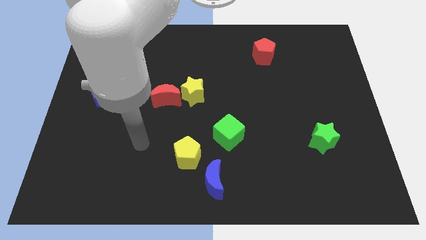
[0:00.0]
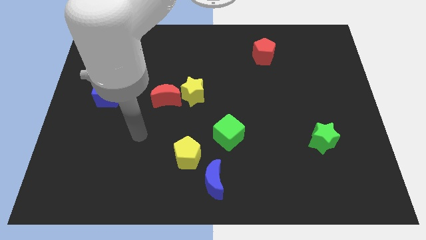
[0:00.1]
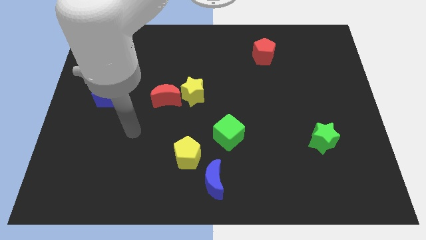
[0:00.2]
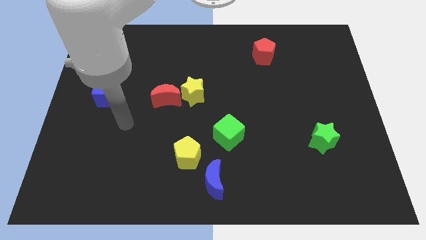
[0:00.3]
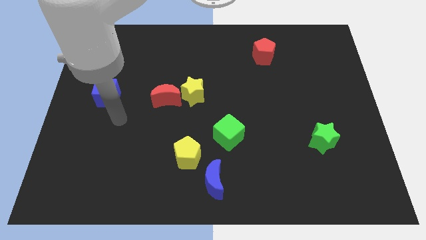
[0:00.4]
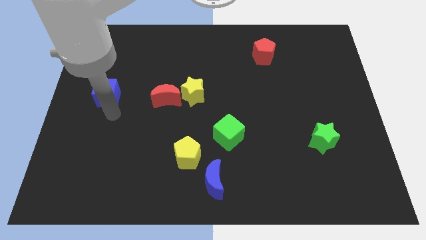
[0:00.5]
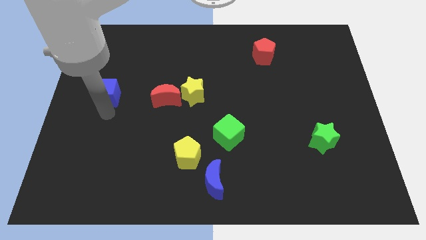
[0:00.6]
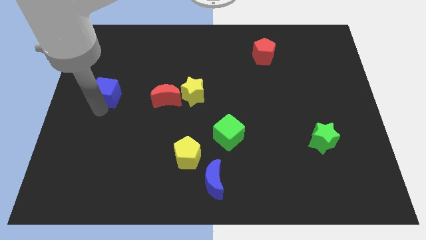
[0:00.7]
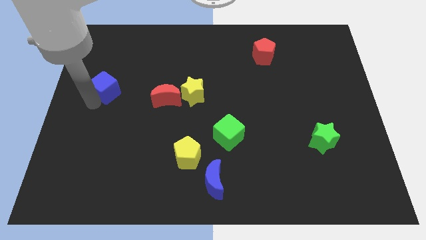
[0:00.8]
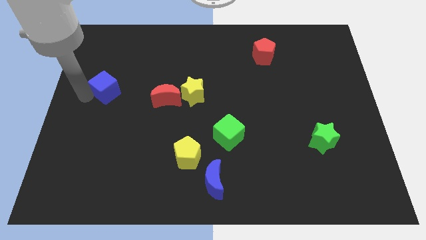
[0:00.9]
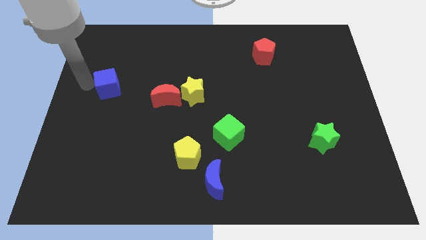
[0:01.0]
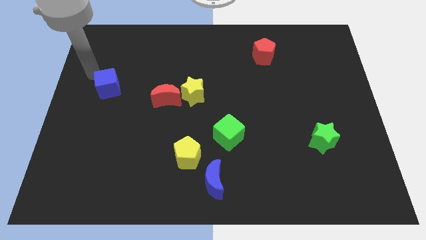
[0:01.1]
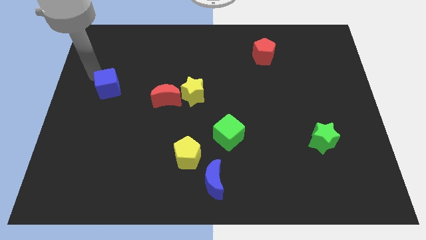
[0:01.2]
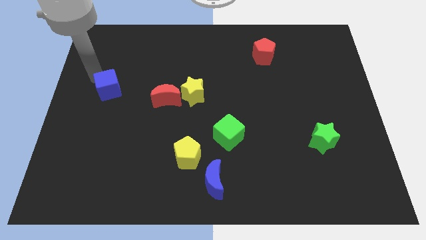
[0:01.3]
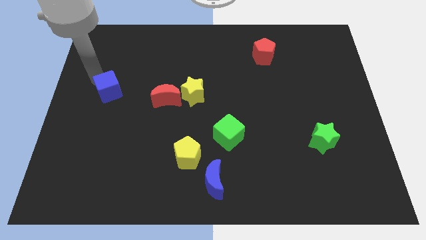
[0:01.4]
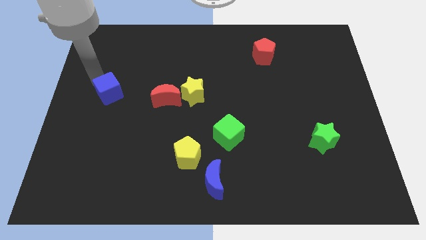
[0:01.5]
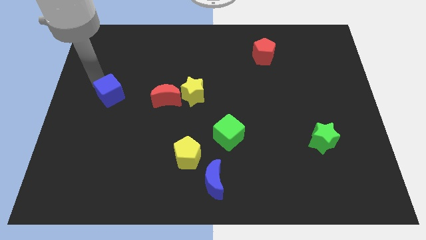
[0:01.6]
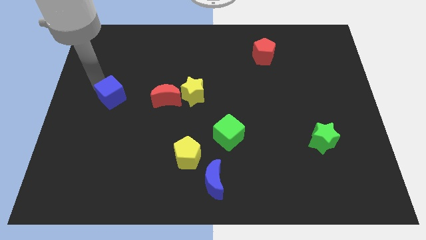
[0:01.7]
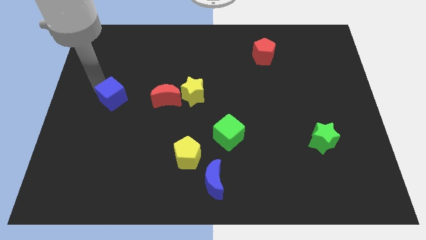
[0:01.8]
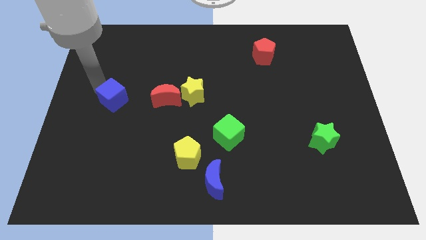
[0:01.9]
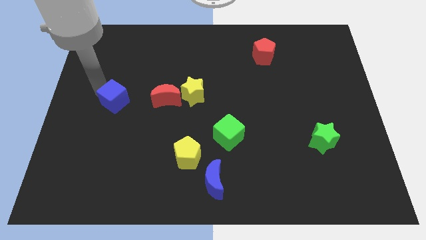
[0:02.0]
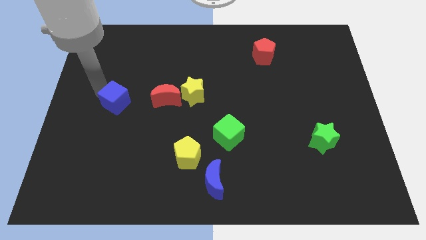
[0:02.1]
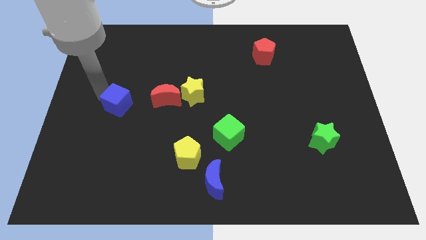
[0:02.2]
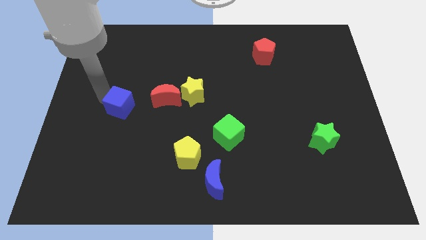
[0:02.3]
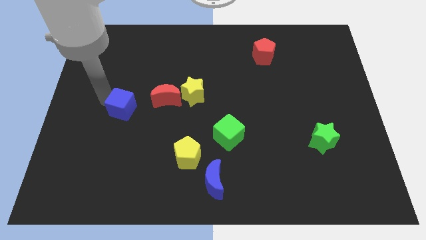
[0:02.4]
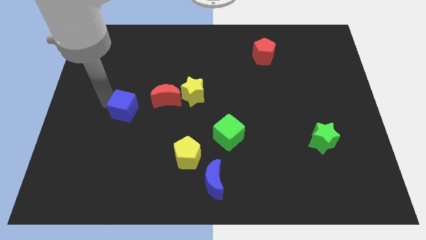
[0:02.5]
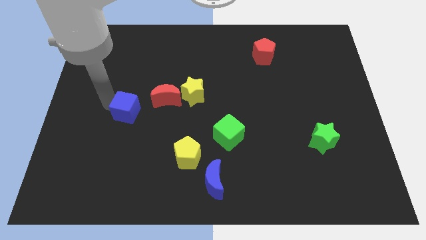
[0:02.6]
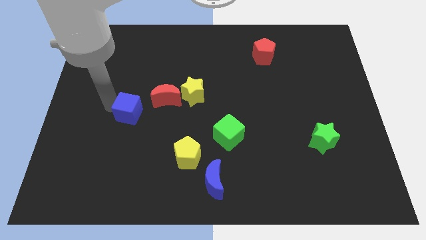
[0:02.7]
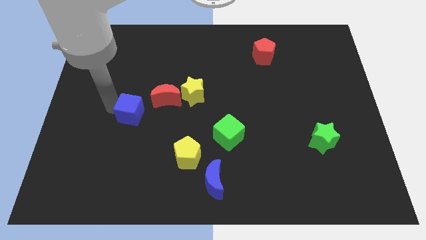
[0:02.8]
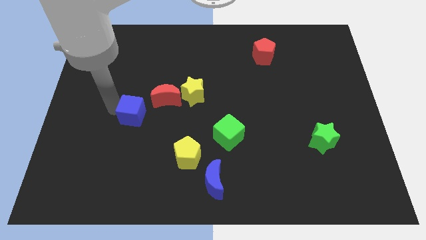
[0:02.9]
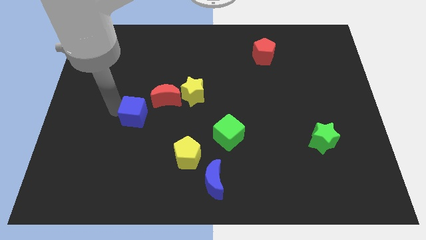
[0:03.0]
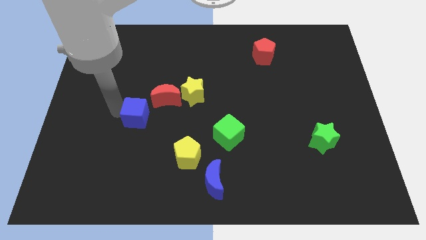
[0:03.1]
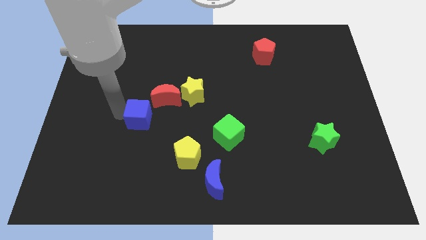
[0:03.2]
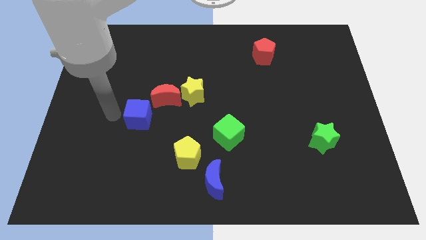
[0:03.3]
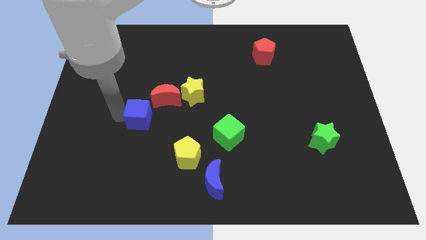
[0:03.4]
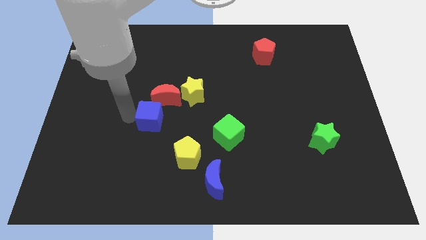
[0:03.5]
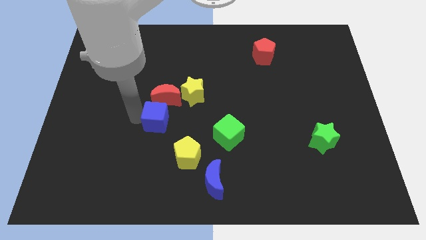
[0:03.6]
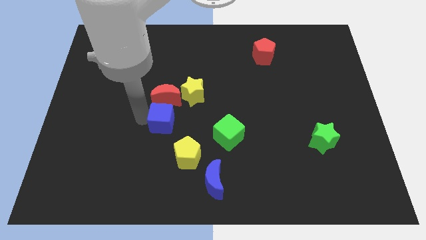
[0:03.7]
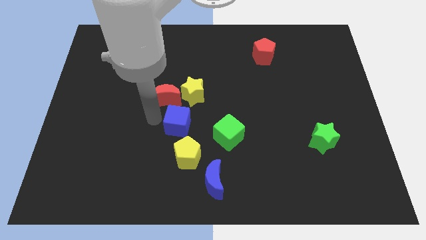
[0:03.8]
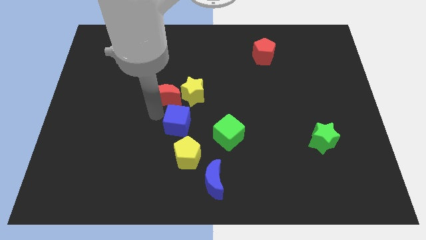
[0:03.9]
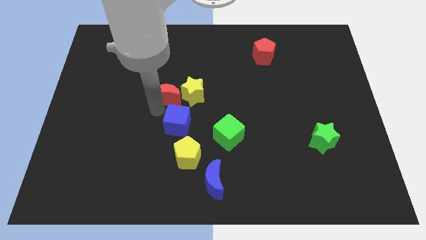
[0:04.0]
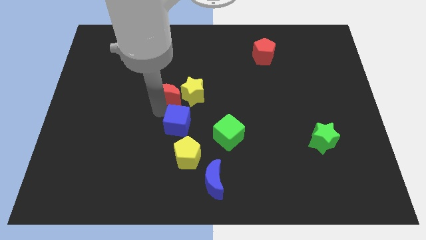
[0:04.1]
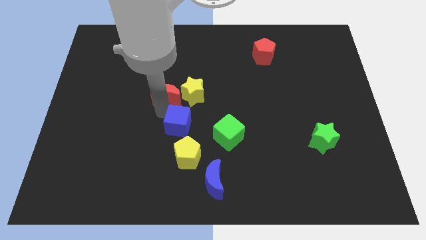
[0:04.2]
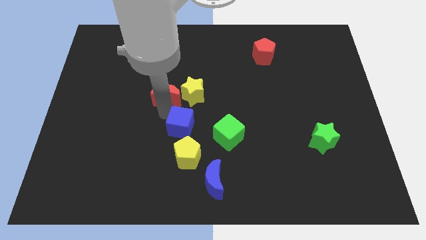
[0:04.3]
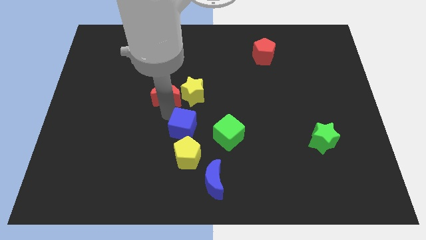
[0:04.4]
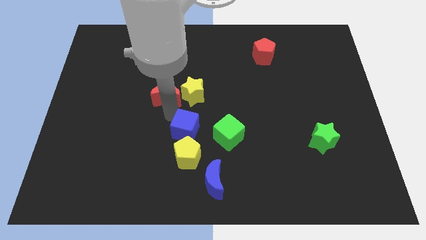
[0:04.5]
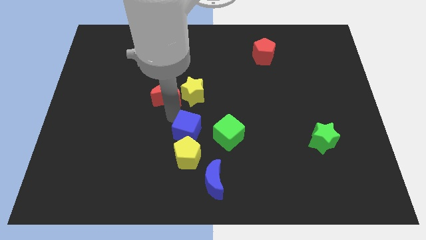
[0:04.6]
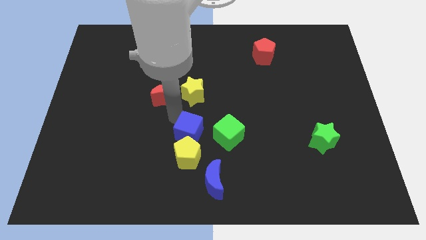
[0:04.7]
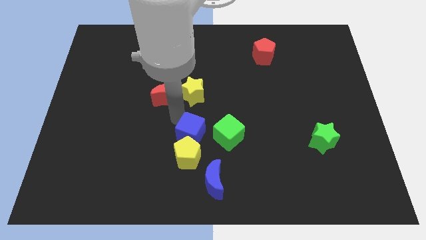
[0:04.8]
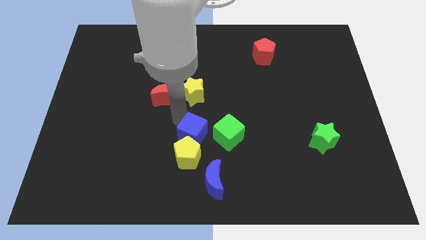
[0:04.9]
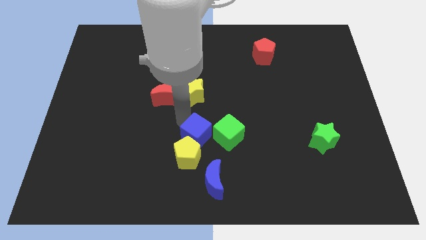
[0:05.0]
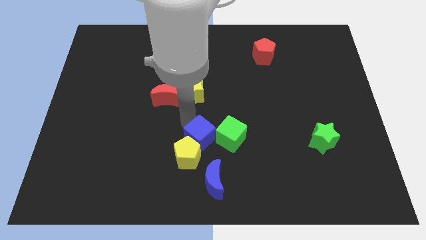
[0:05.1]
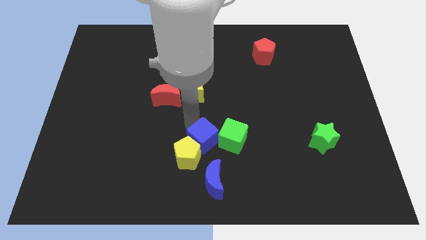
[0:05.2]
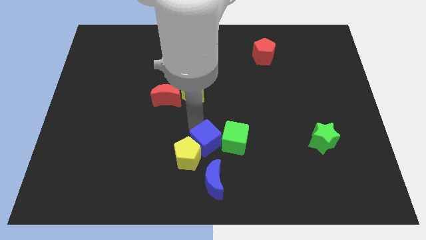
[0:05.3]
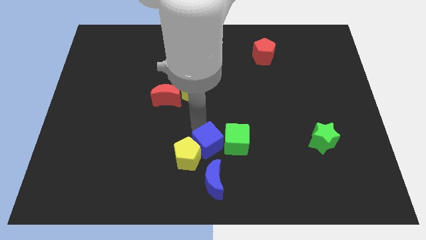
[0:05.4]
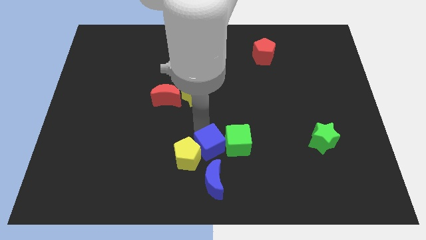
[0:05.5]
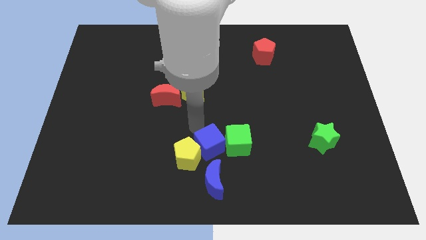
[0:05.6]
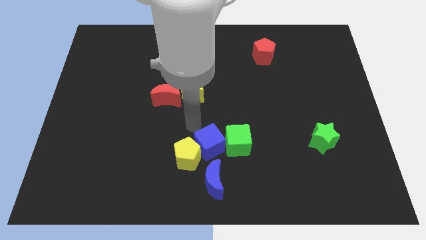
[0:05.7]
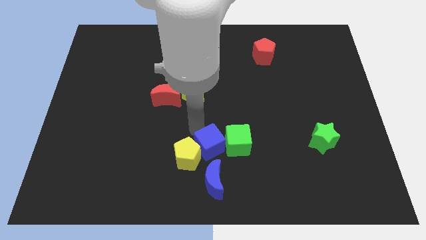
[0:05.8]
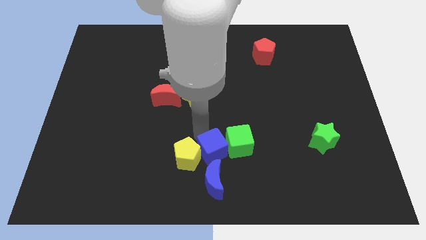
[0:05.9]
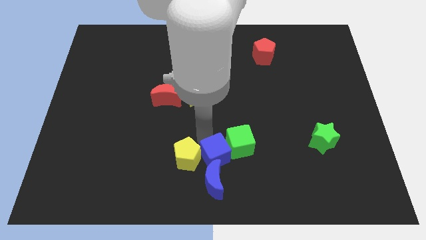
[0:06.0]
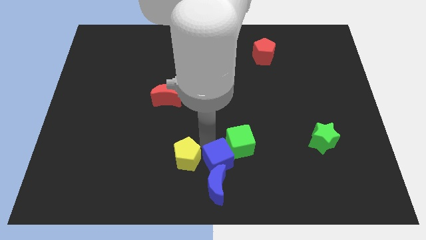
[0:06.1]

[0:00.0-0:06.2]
put the blue cube to the bottom side of the green cube
